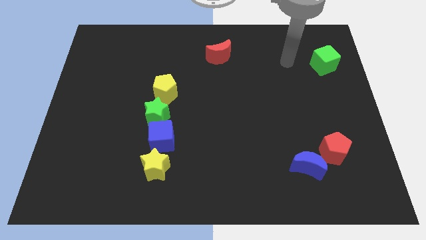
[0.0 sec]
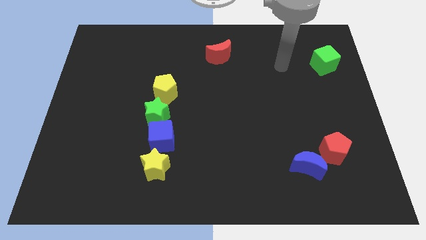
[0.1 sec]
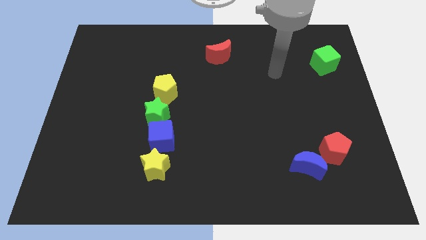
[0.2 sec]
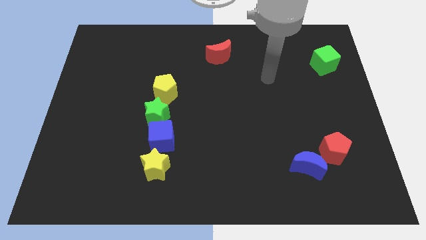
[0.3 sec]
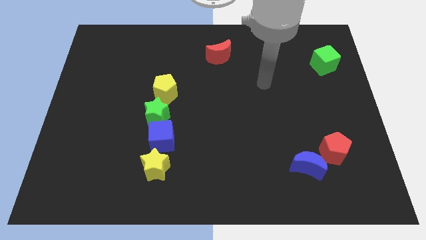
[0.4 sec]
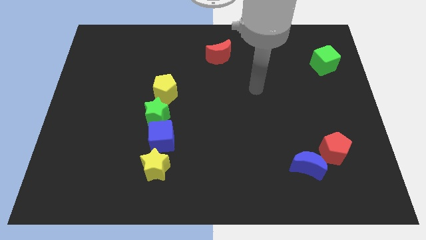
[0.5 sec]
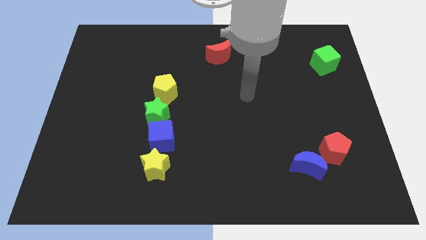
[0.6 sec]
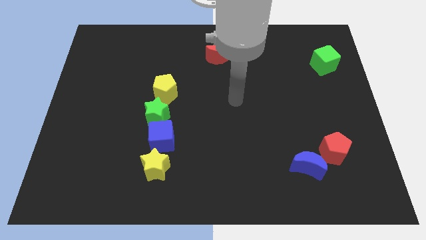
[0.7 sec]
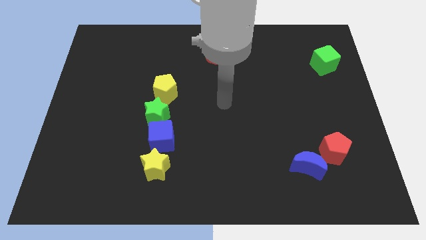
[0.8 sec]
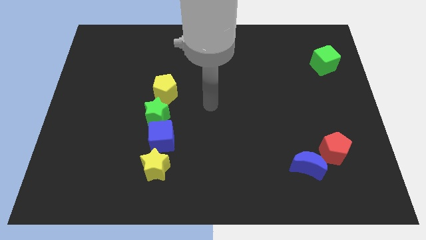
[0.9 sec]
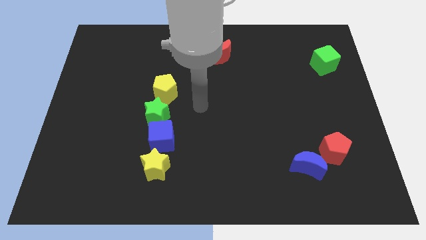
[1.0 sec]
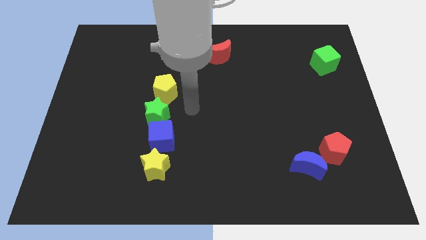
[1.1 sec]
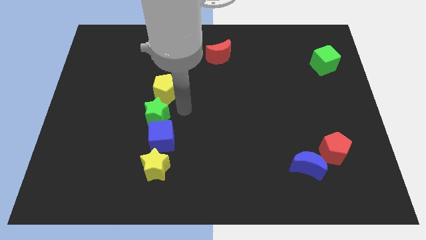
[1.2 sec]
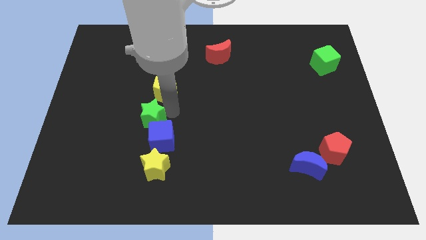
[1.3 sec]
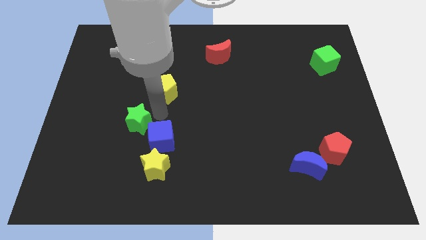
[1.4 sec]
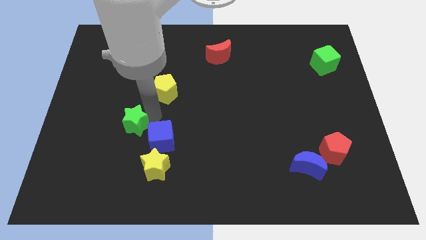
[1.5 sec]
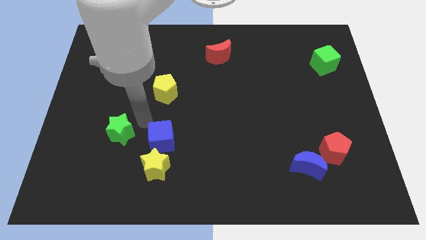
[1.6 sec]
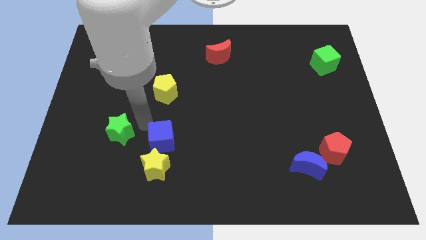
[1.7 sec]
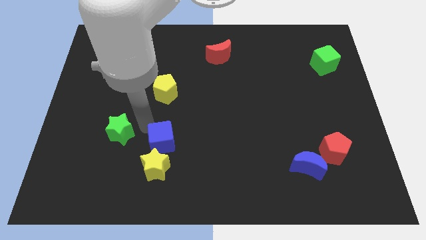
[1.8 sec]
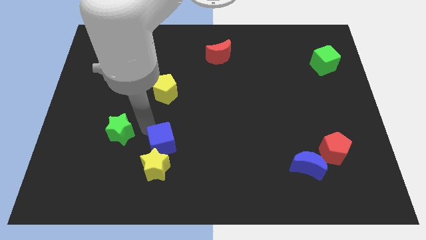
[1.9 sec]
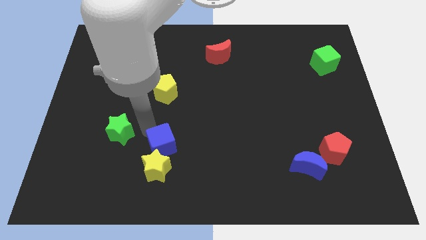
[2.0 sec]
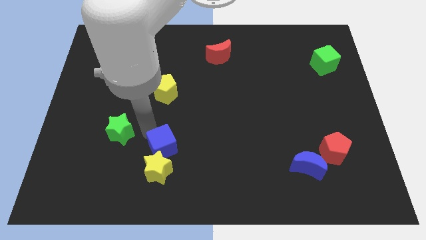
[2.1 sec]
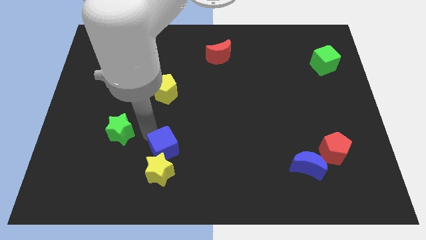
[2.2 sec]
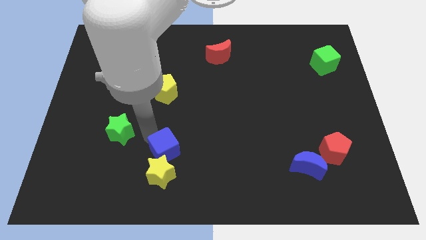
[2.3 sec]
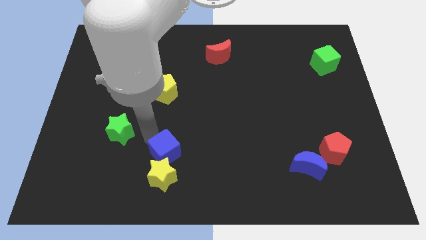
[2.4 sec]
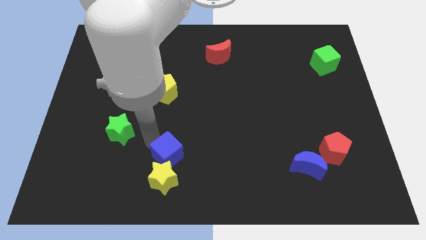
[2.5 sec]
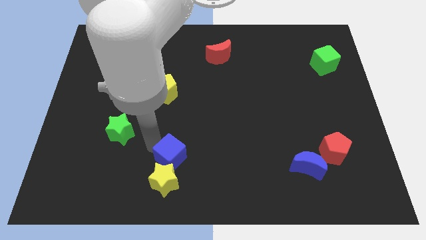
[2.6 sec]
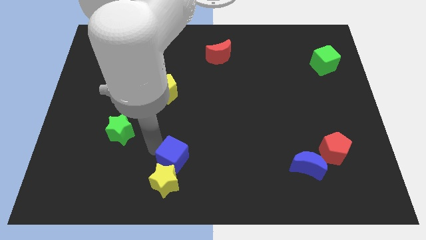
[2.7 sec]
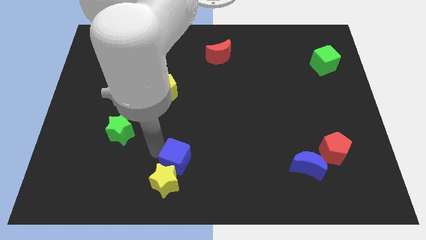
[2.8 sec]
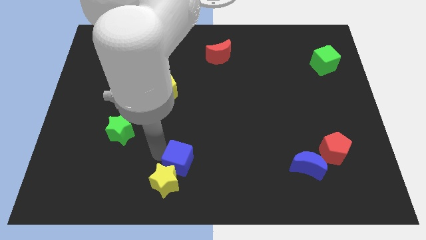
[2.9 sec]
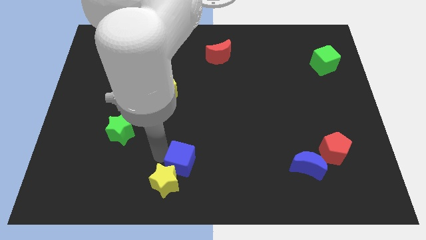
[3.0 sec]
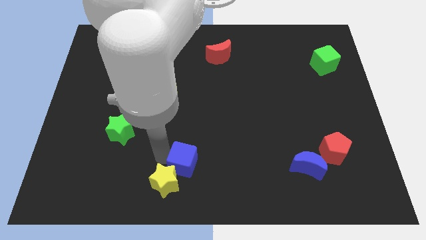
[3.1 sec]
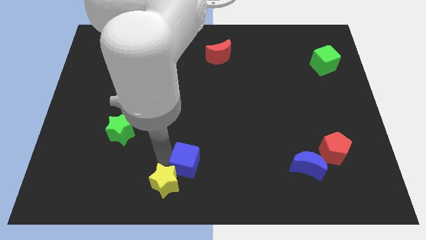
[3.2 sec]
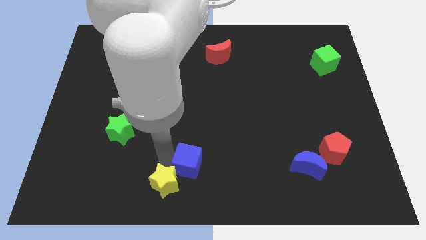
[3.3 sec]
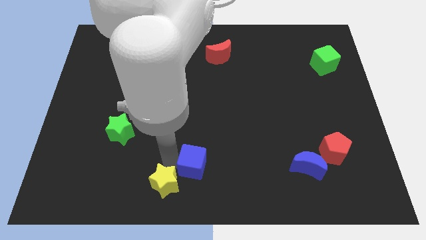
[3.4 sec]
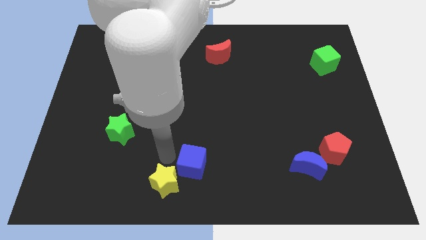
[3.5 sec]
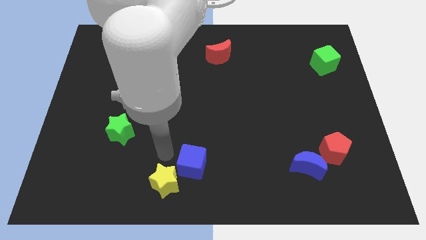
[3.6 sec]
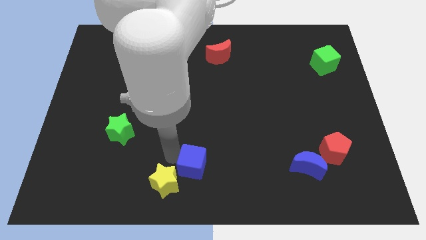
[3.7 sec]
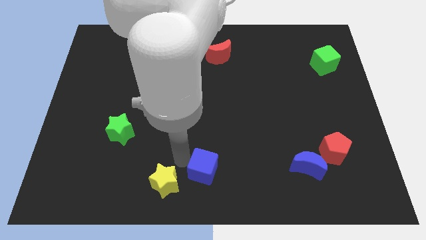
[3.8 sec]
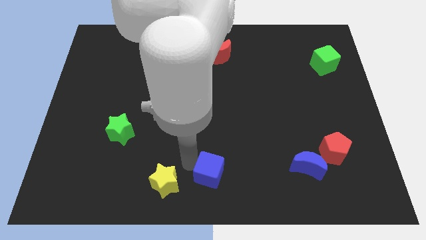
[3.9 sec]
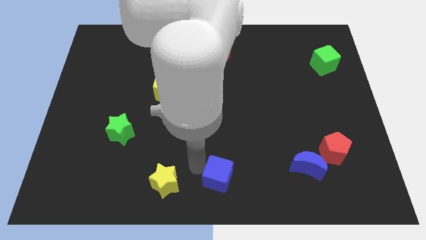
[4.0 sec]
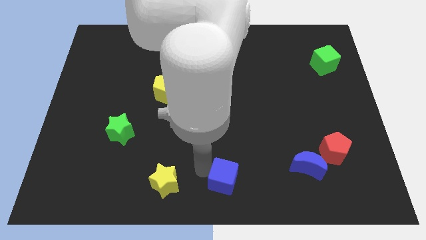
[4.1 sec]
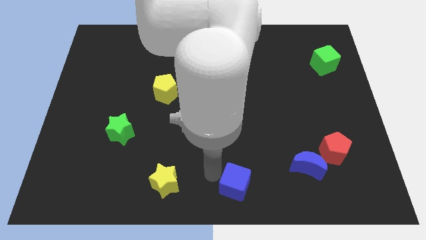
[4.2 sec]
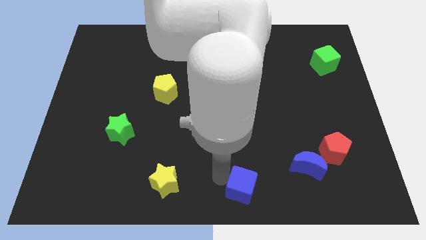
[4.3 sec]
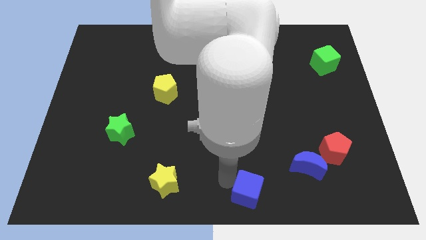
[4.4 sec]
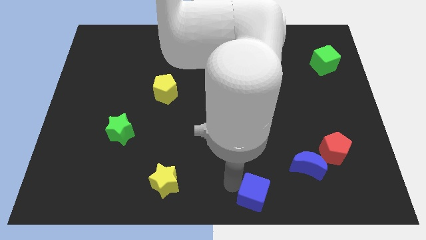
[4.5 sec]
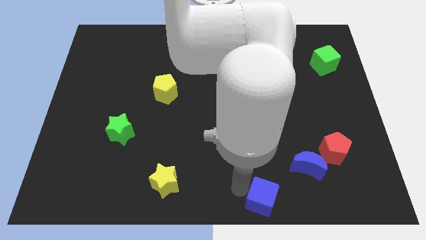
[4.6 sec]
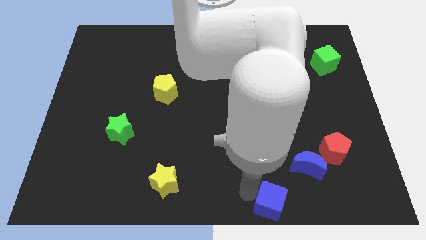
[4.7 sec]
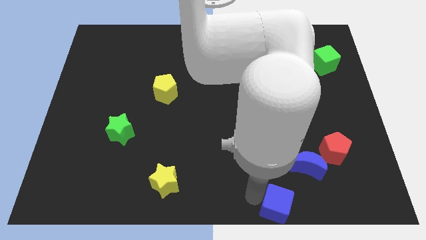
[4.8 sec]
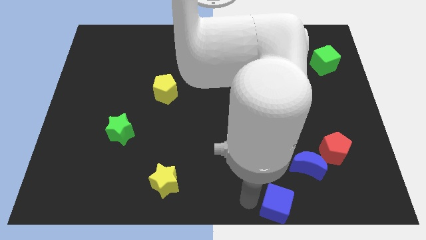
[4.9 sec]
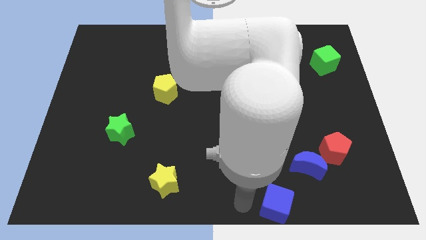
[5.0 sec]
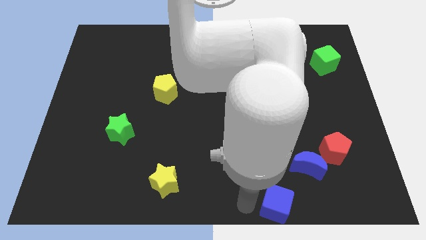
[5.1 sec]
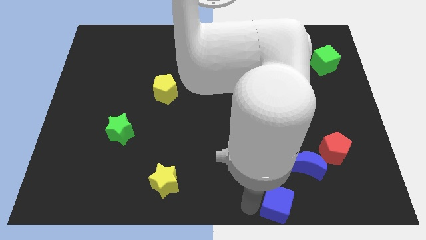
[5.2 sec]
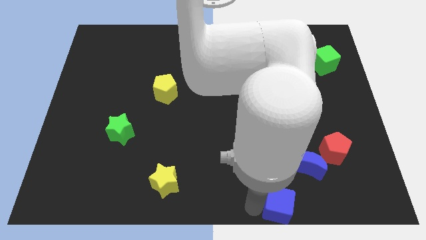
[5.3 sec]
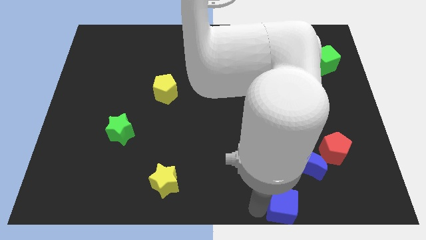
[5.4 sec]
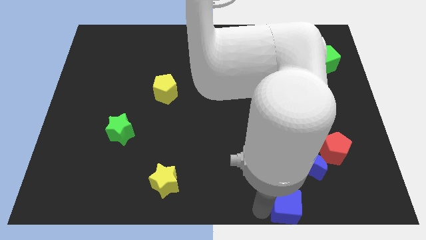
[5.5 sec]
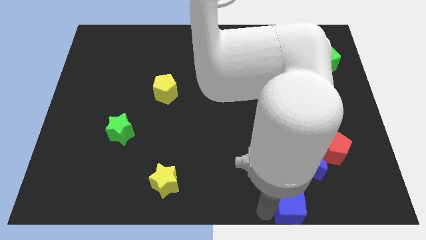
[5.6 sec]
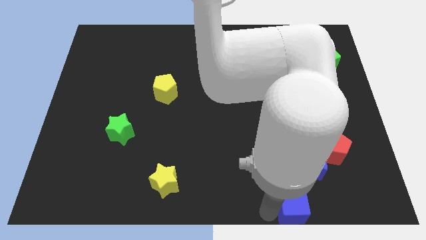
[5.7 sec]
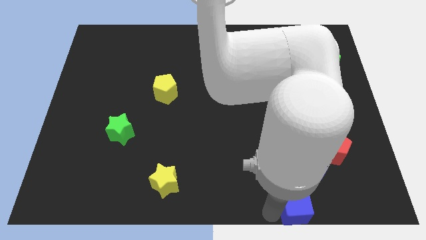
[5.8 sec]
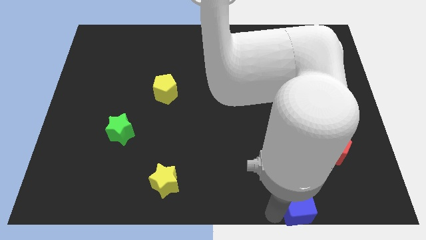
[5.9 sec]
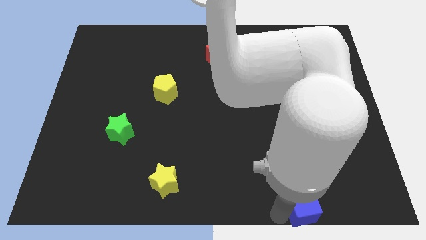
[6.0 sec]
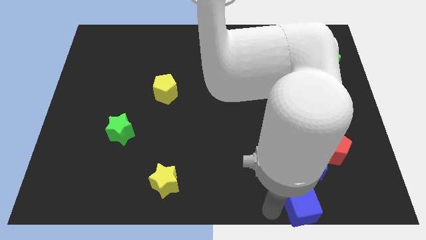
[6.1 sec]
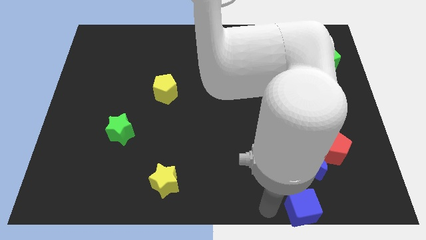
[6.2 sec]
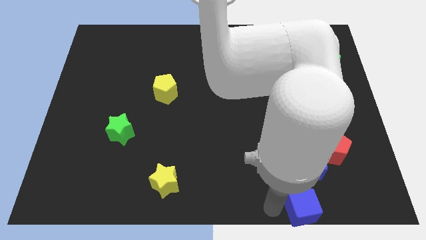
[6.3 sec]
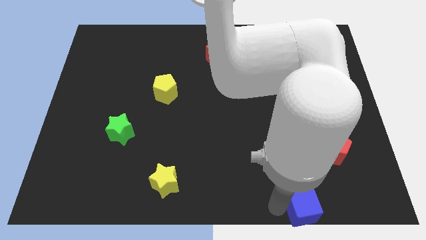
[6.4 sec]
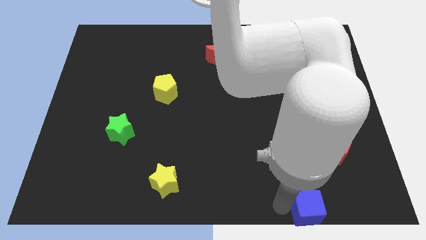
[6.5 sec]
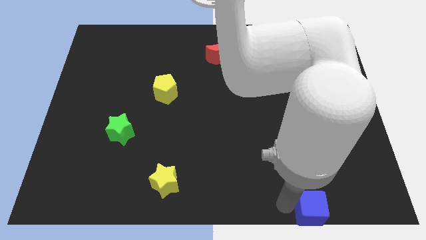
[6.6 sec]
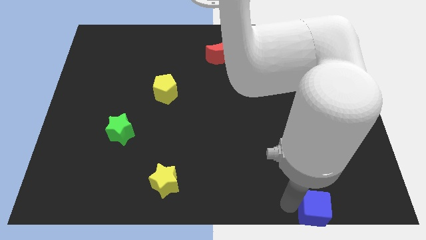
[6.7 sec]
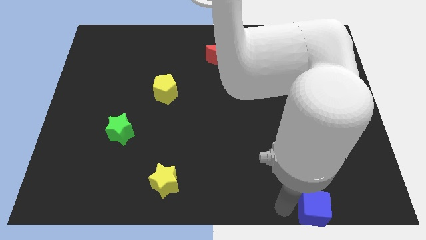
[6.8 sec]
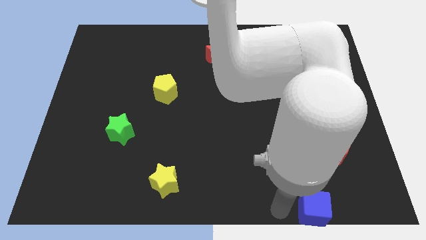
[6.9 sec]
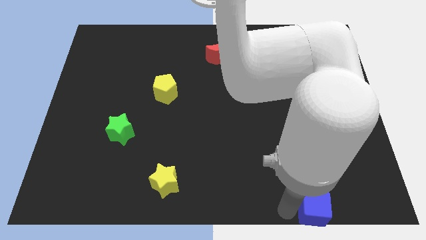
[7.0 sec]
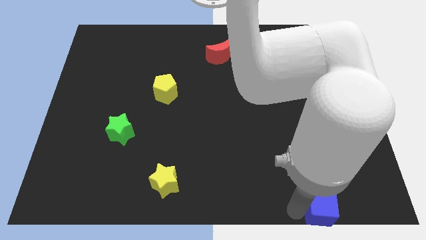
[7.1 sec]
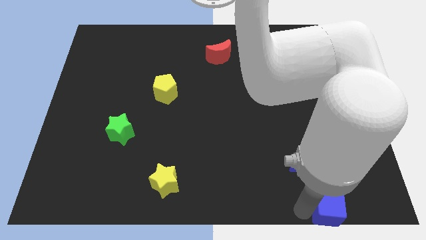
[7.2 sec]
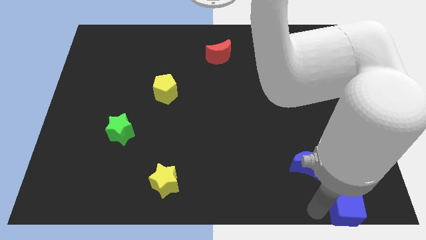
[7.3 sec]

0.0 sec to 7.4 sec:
put the blue cube to the bottom right
